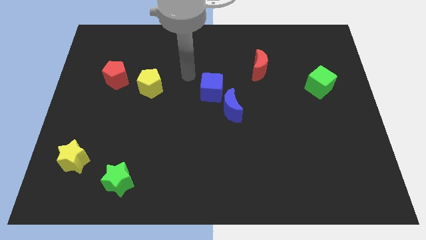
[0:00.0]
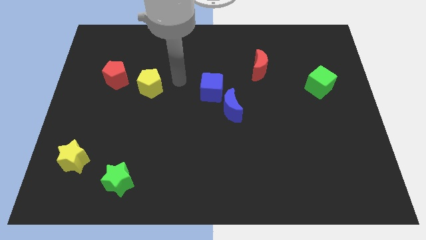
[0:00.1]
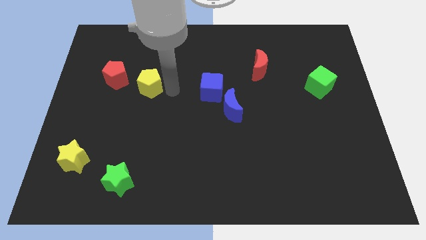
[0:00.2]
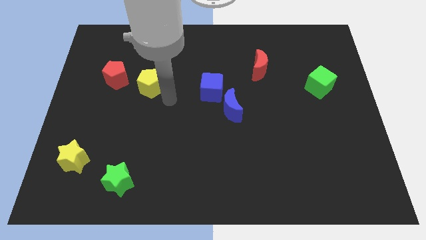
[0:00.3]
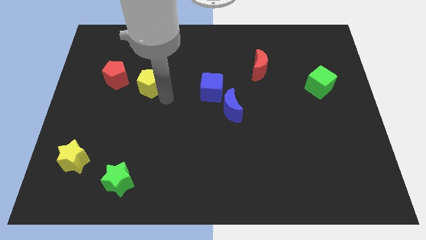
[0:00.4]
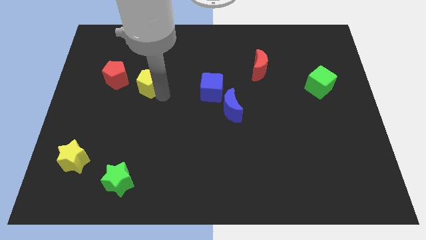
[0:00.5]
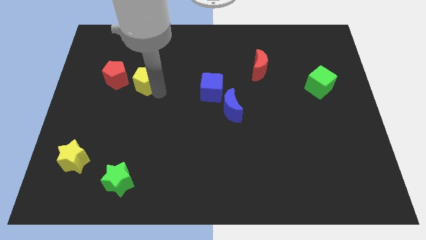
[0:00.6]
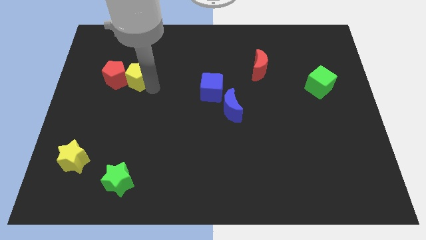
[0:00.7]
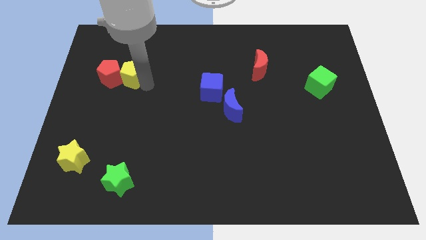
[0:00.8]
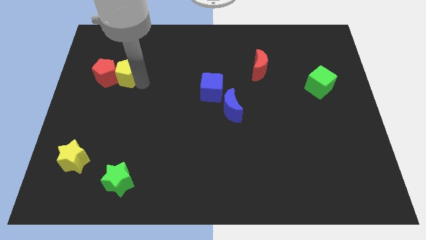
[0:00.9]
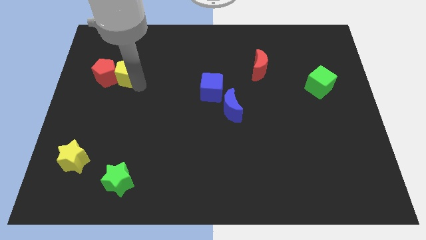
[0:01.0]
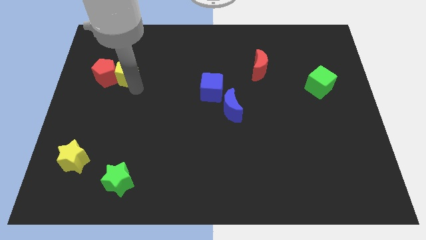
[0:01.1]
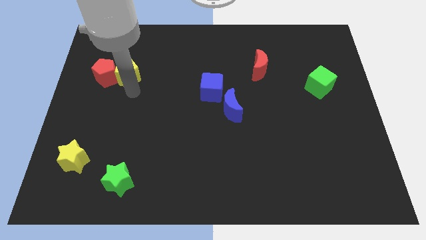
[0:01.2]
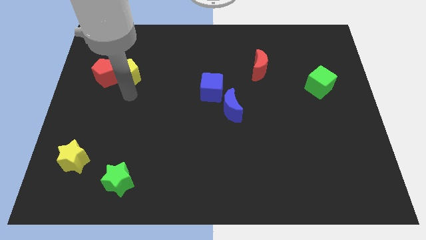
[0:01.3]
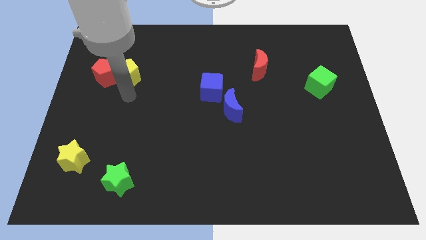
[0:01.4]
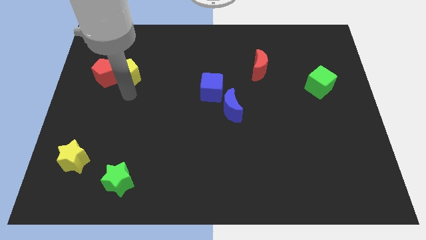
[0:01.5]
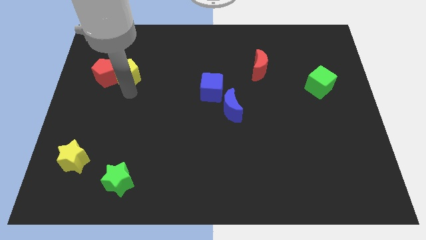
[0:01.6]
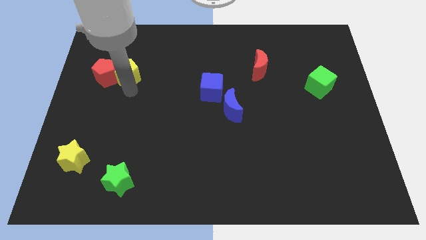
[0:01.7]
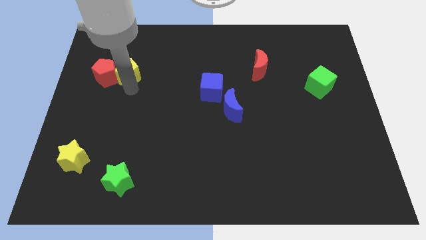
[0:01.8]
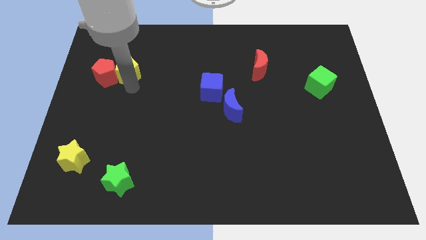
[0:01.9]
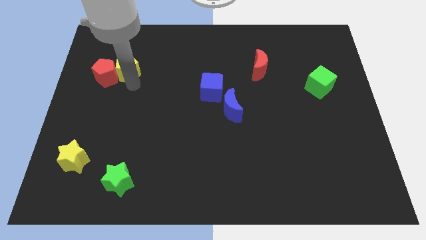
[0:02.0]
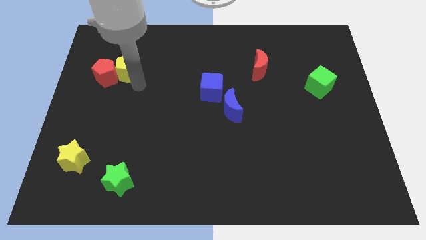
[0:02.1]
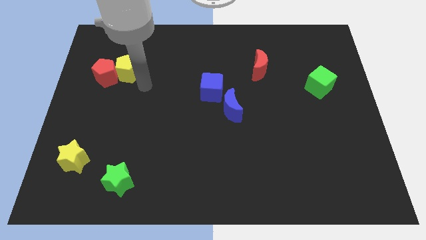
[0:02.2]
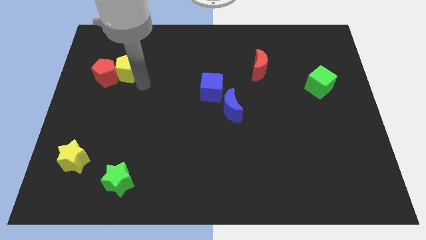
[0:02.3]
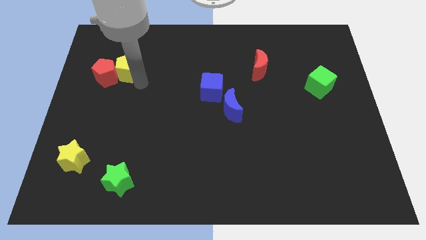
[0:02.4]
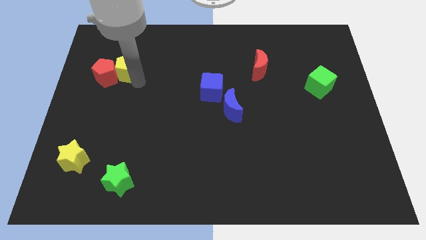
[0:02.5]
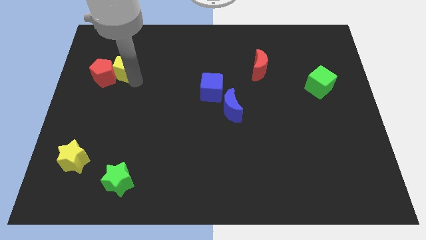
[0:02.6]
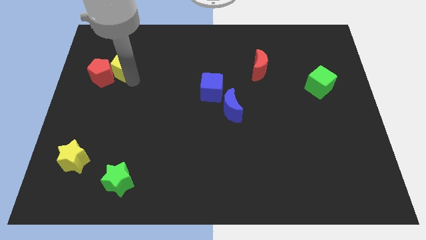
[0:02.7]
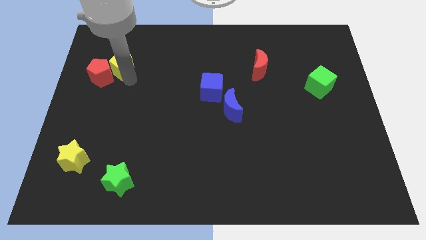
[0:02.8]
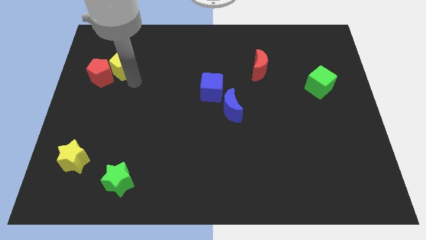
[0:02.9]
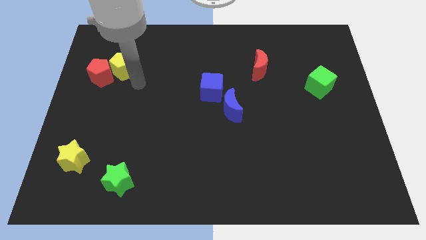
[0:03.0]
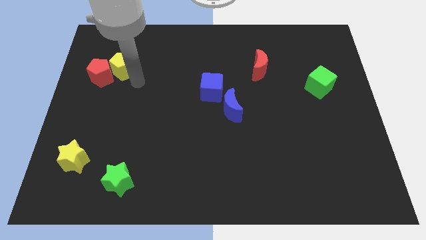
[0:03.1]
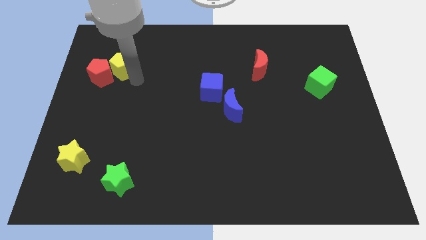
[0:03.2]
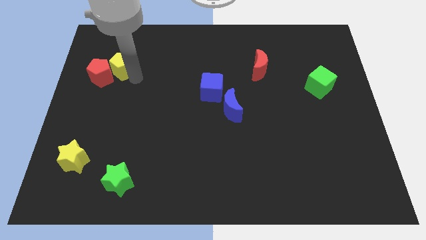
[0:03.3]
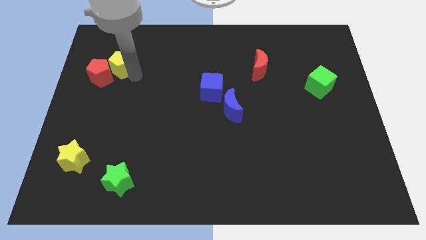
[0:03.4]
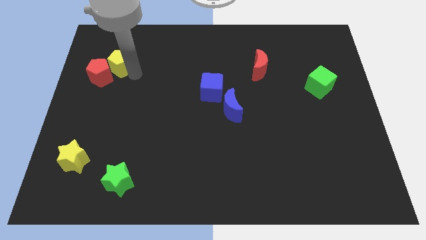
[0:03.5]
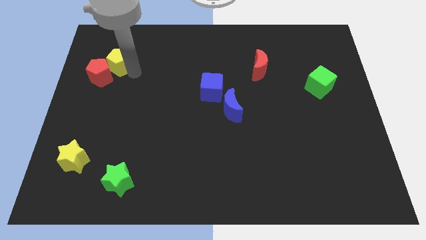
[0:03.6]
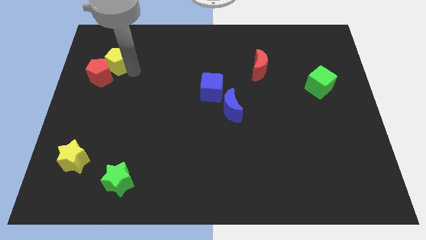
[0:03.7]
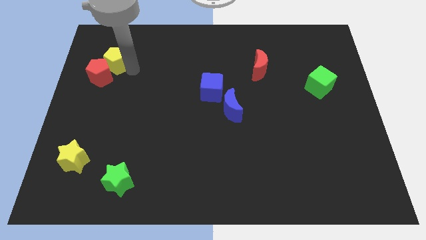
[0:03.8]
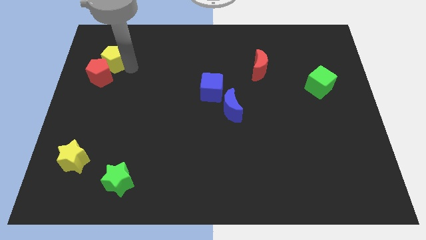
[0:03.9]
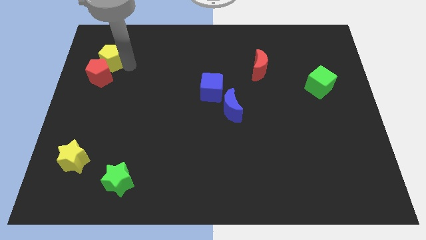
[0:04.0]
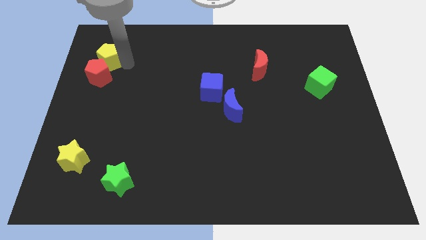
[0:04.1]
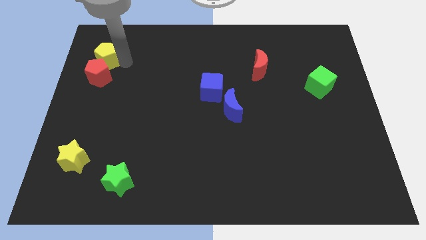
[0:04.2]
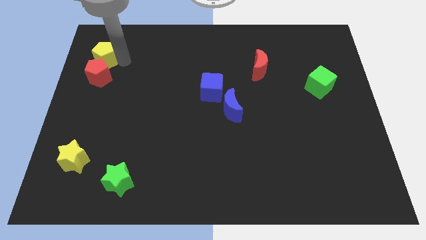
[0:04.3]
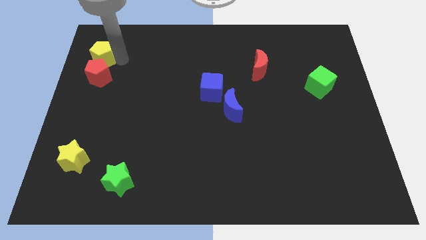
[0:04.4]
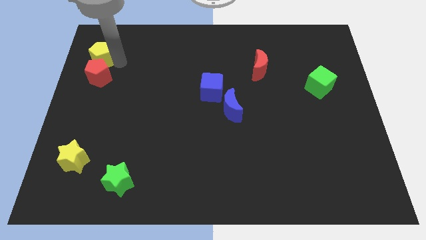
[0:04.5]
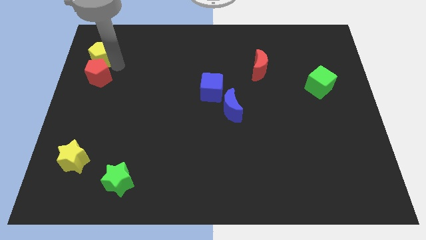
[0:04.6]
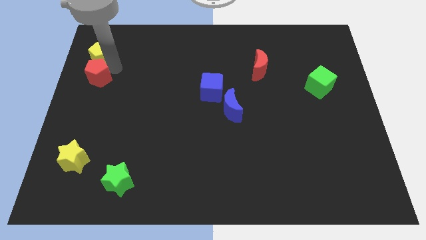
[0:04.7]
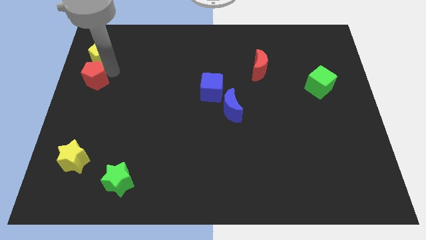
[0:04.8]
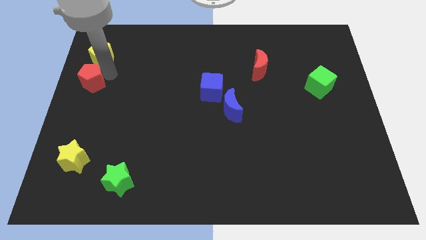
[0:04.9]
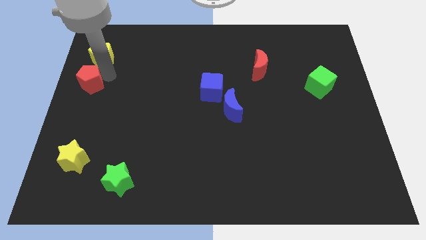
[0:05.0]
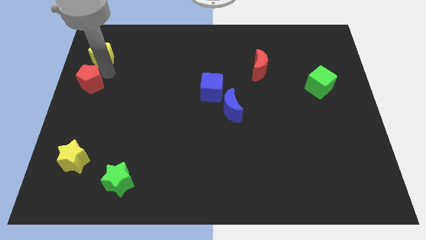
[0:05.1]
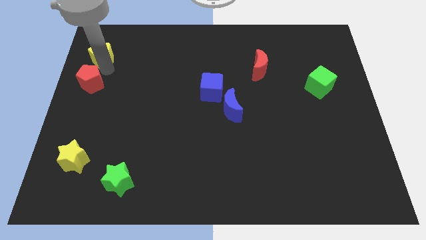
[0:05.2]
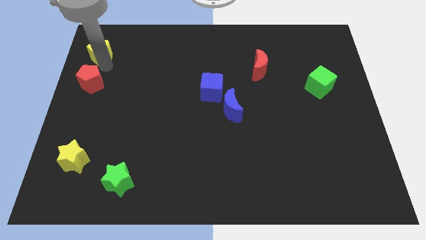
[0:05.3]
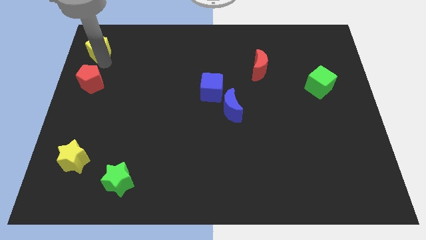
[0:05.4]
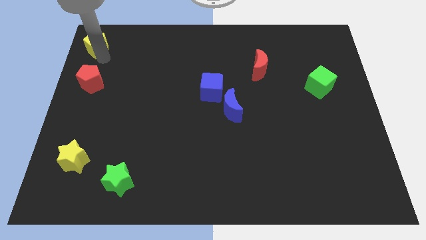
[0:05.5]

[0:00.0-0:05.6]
put the yellow pentagon to the upper left corner

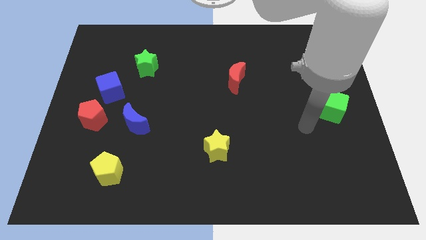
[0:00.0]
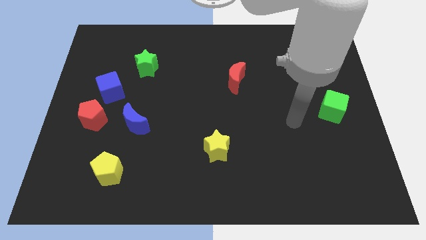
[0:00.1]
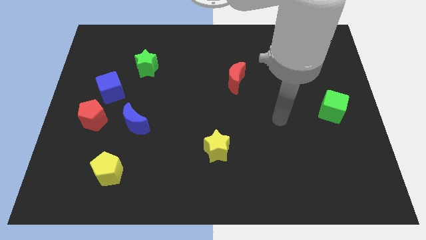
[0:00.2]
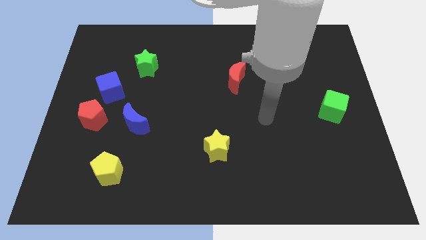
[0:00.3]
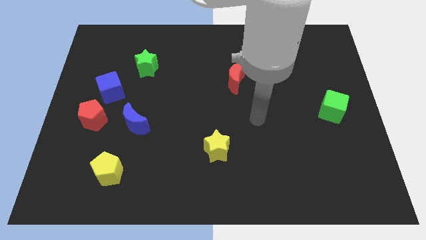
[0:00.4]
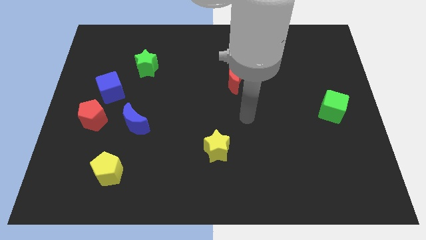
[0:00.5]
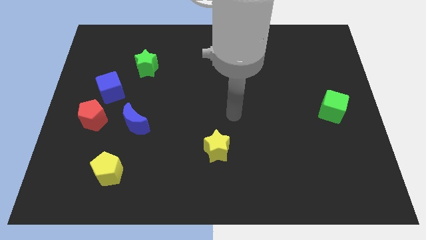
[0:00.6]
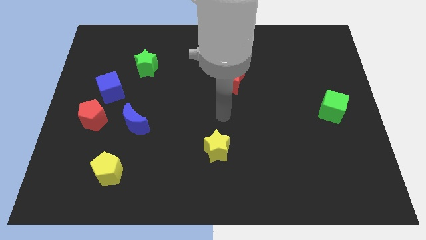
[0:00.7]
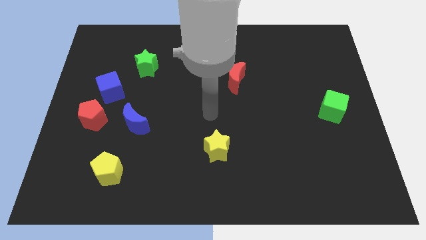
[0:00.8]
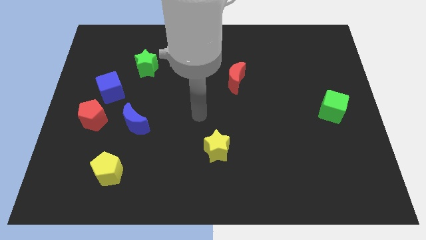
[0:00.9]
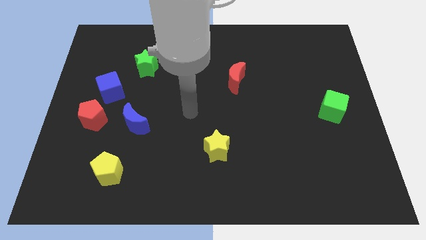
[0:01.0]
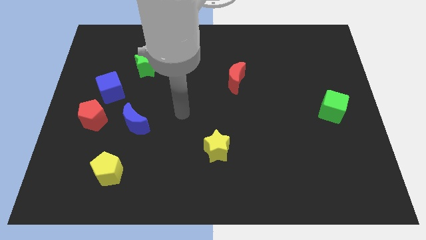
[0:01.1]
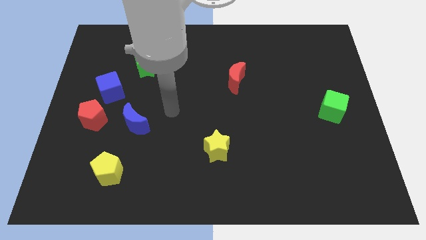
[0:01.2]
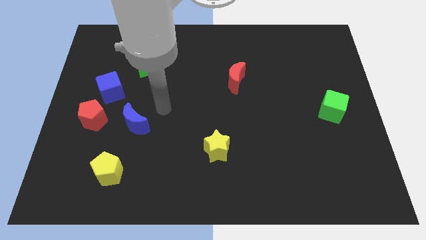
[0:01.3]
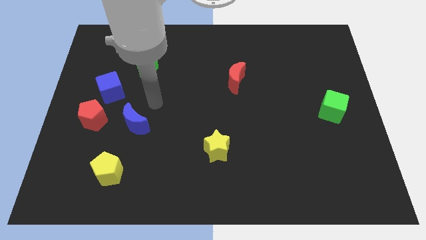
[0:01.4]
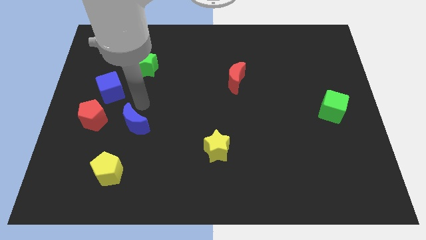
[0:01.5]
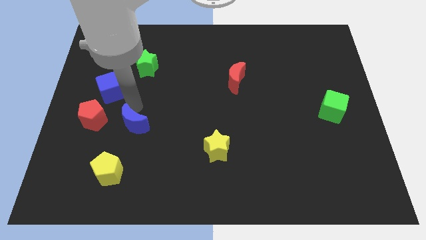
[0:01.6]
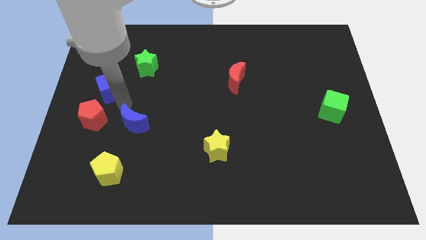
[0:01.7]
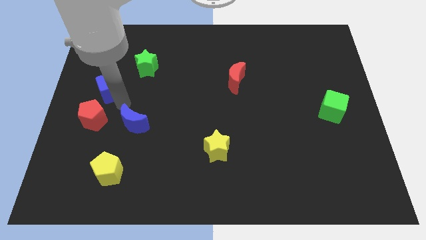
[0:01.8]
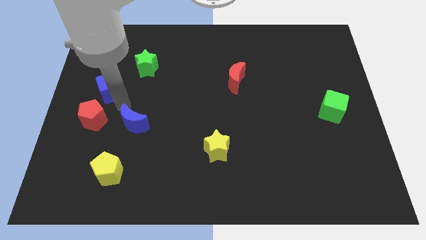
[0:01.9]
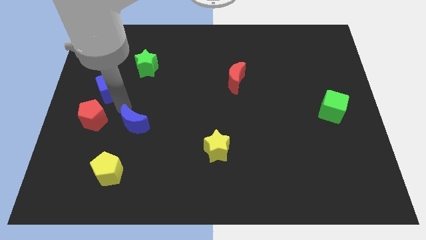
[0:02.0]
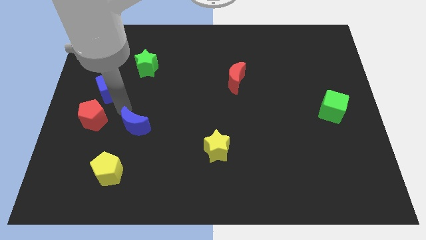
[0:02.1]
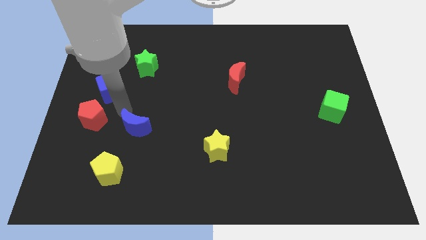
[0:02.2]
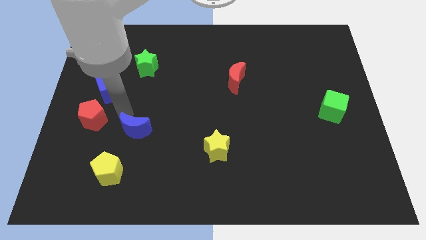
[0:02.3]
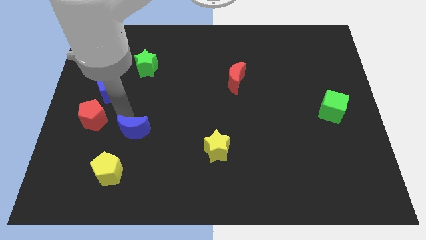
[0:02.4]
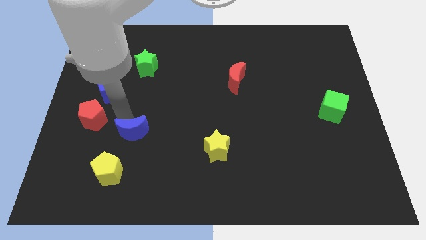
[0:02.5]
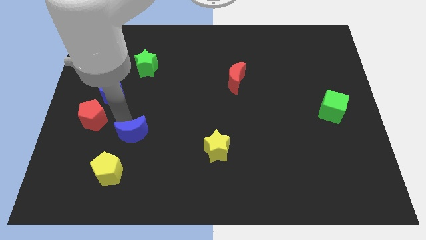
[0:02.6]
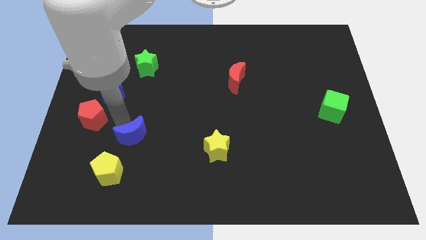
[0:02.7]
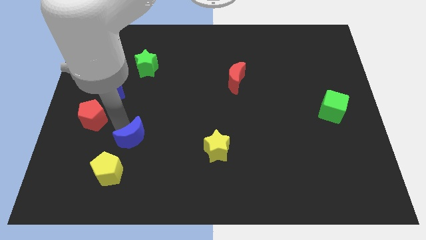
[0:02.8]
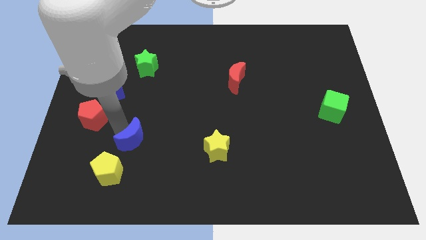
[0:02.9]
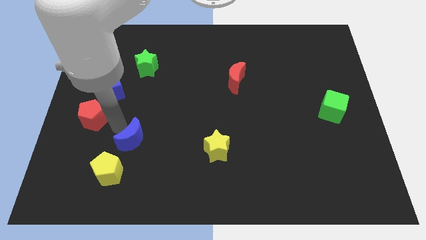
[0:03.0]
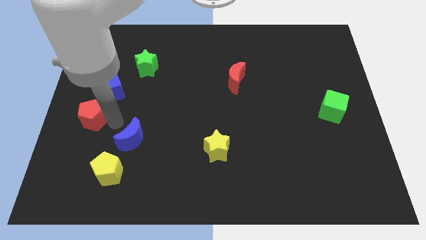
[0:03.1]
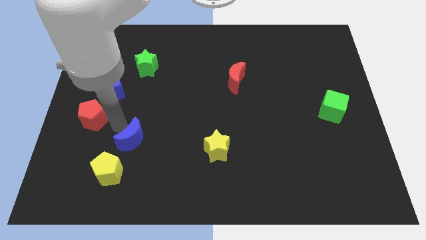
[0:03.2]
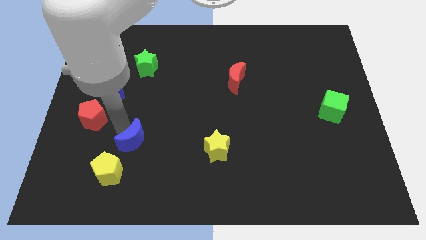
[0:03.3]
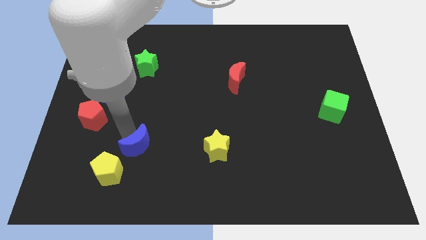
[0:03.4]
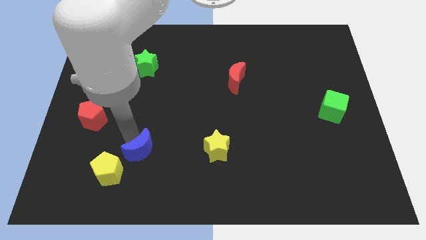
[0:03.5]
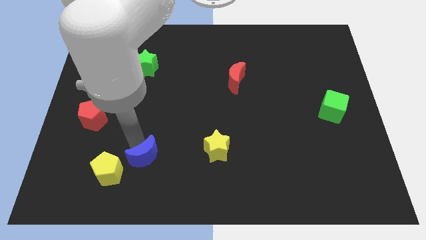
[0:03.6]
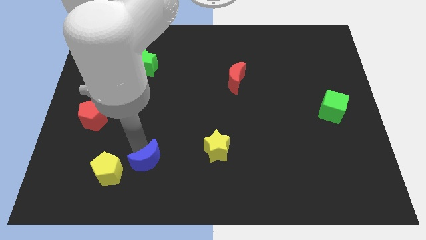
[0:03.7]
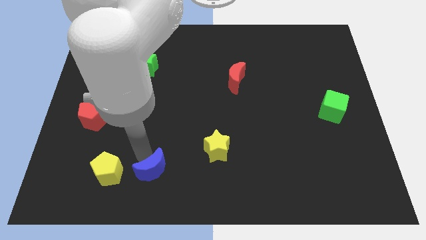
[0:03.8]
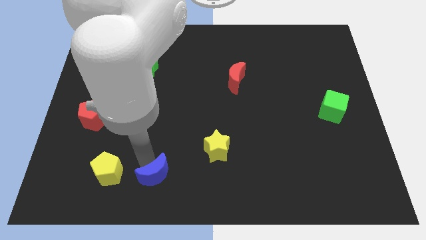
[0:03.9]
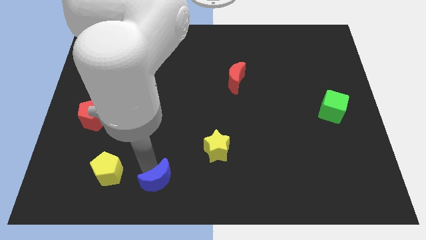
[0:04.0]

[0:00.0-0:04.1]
push the blue moon to the bottom
